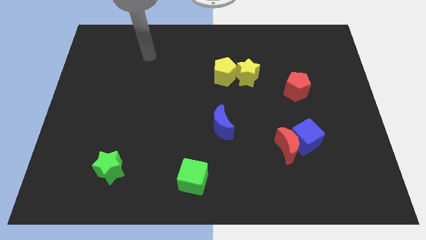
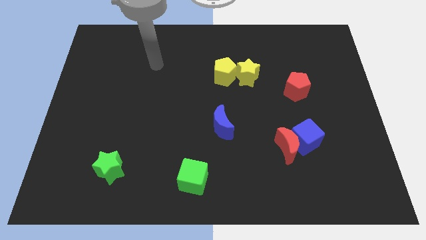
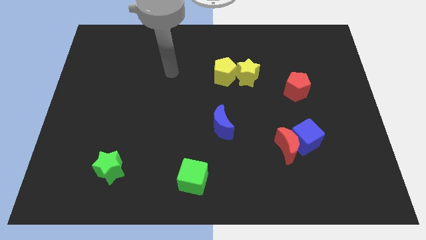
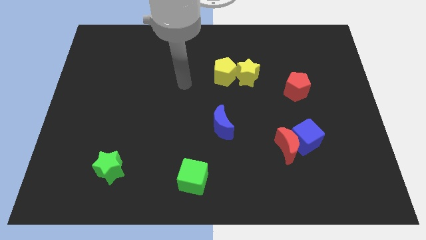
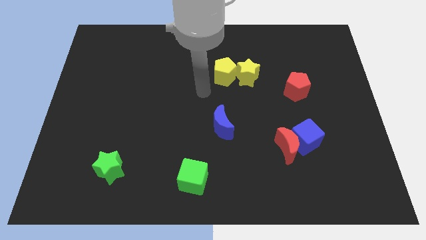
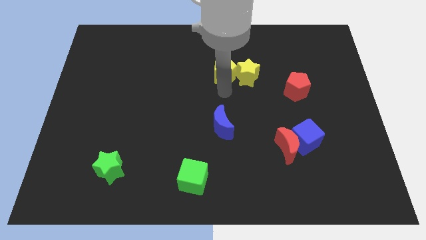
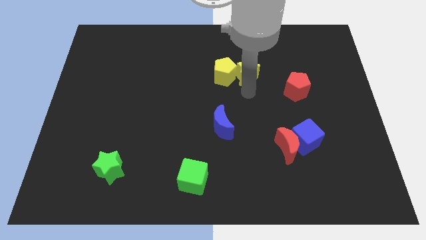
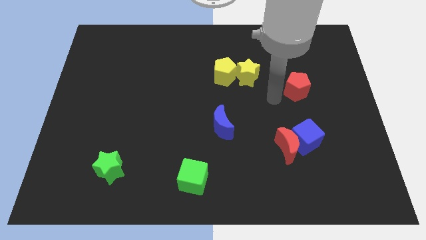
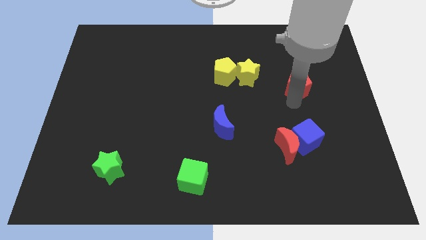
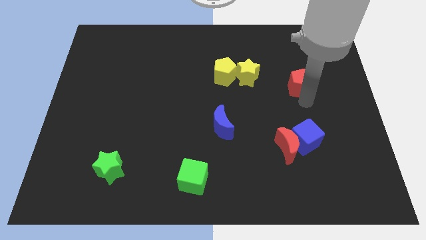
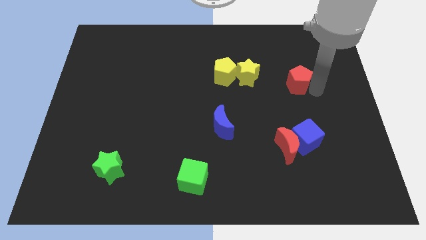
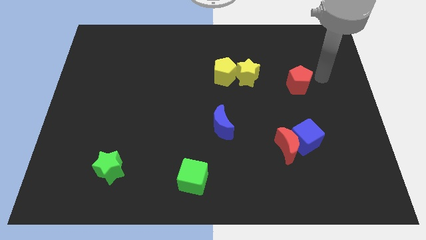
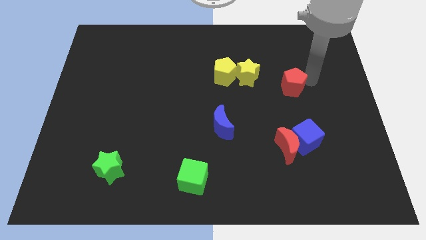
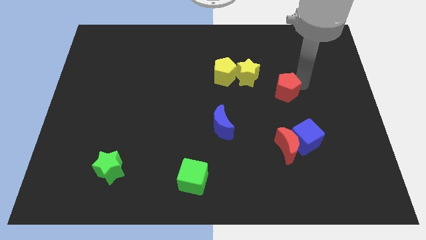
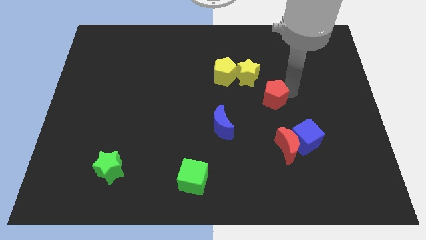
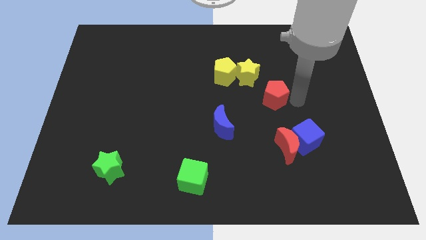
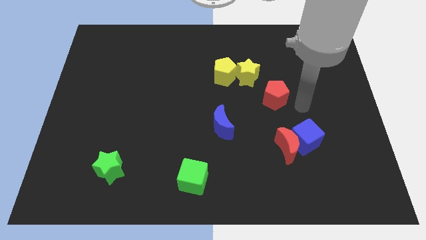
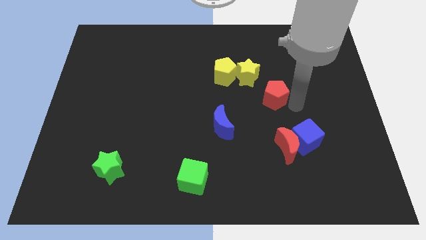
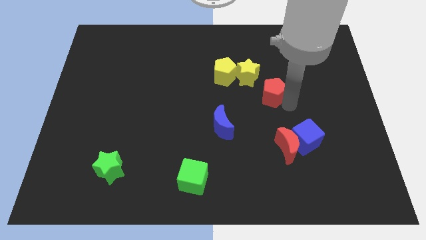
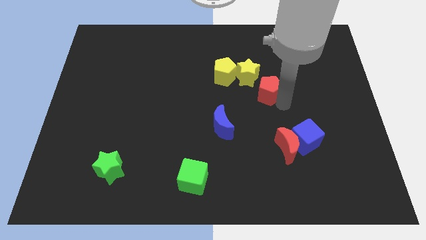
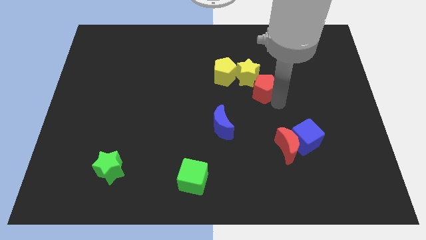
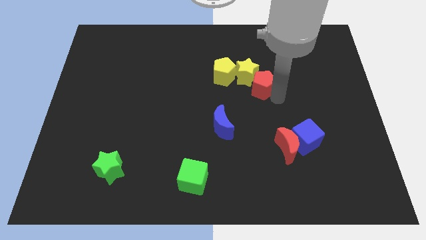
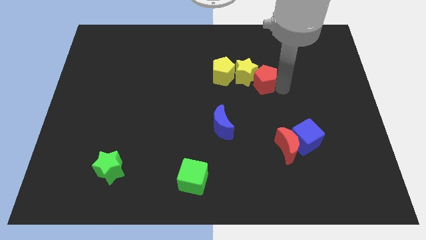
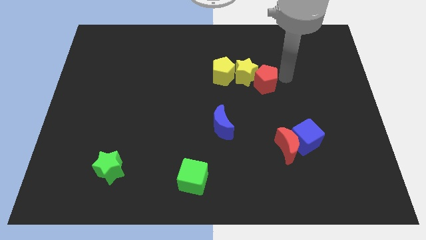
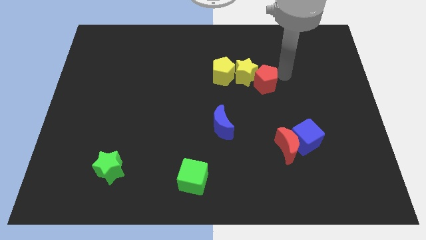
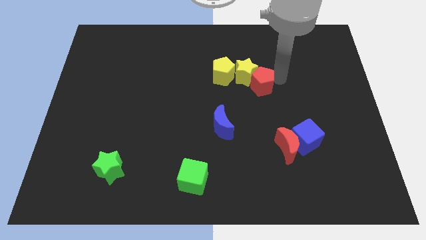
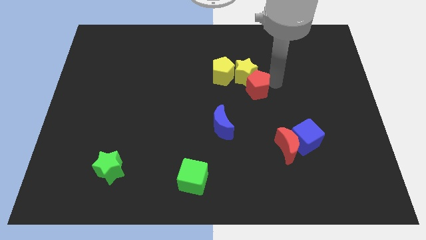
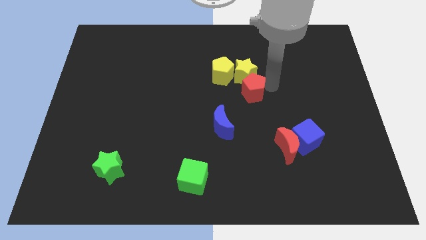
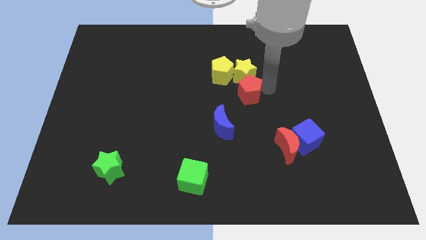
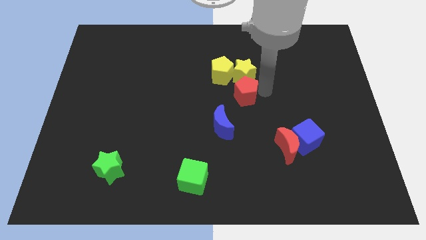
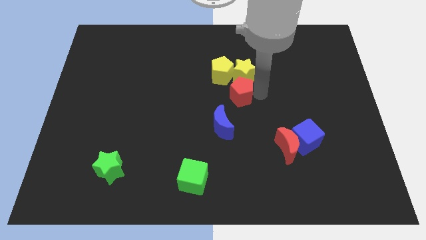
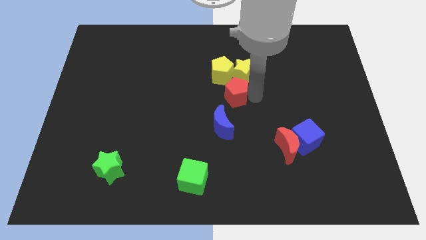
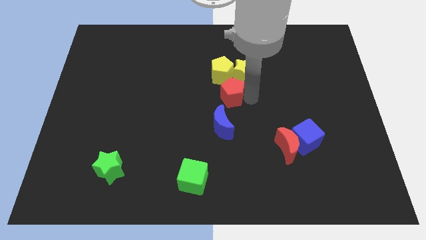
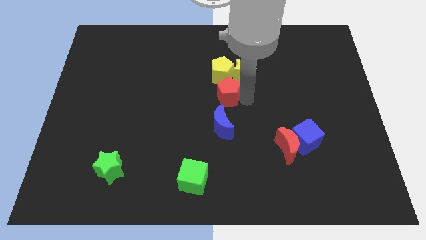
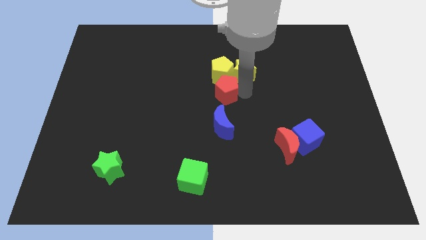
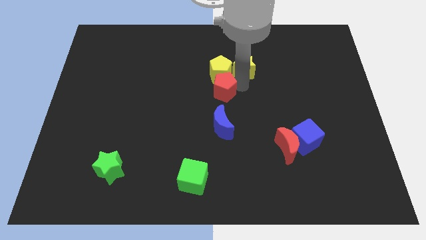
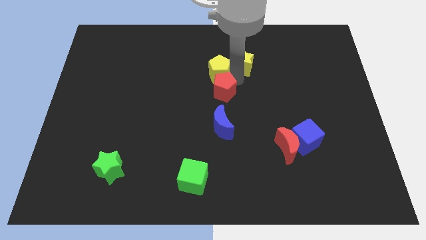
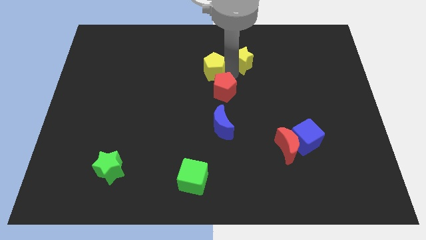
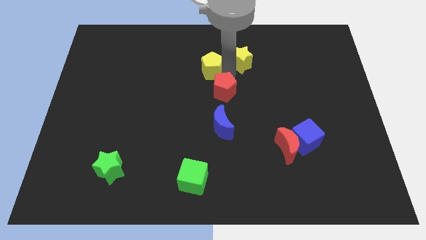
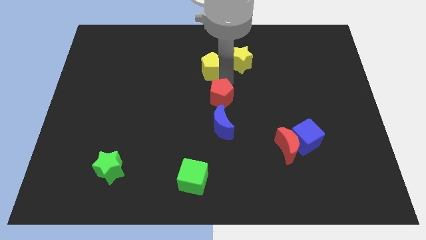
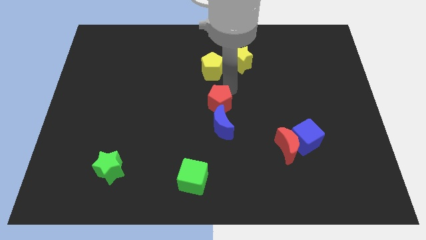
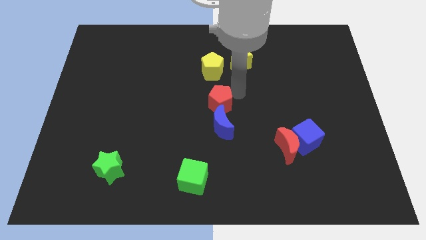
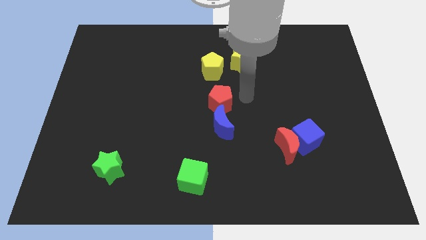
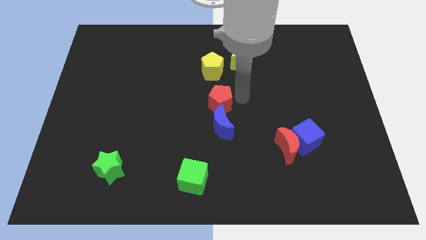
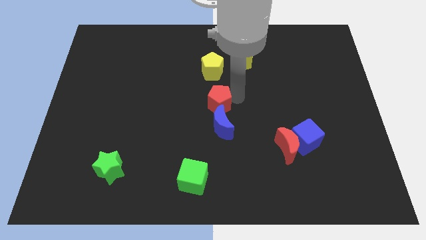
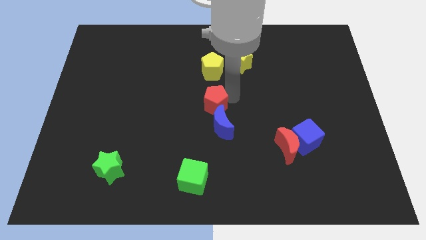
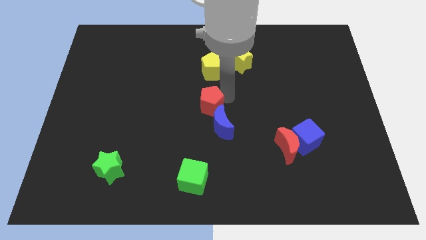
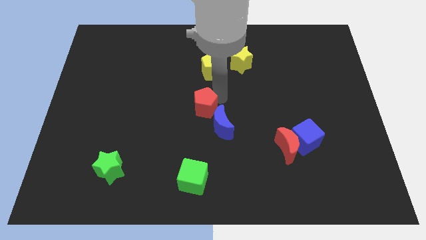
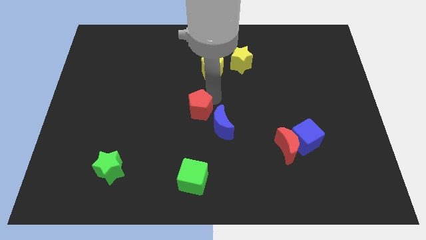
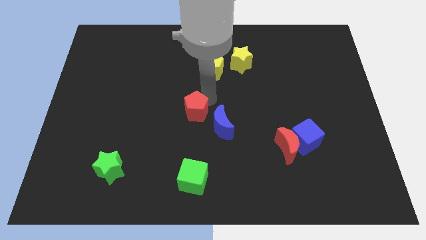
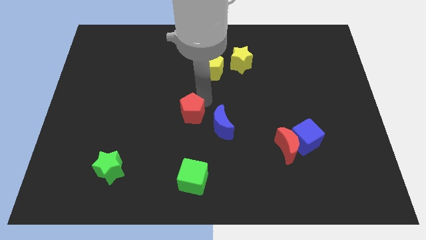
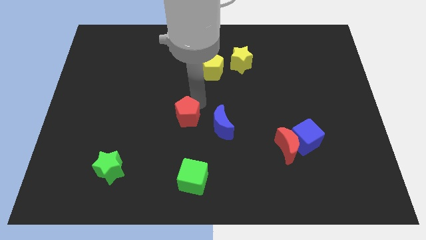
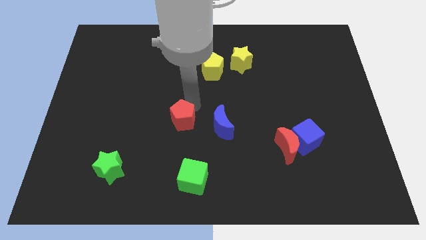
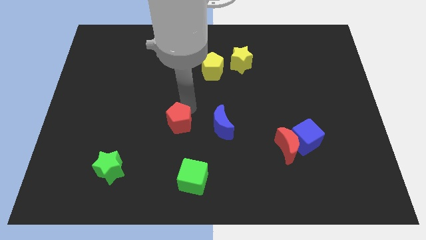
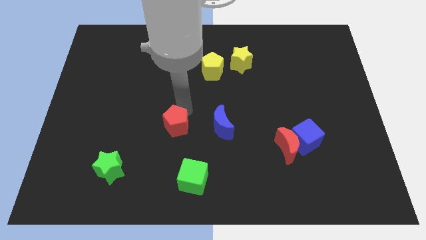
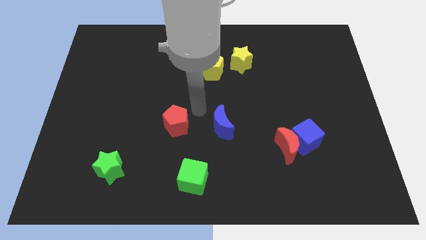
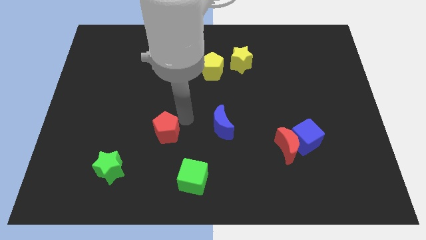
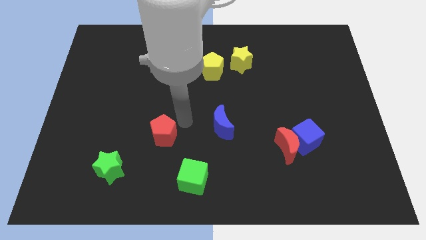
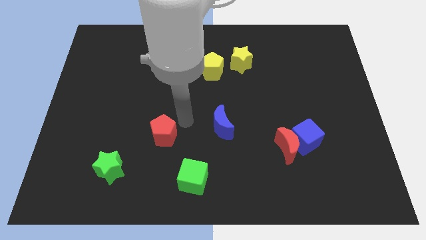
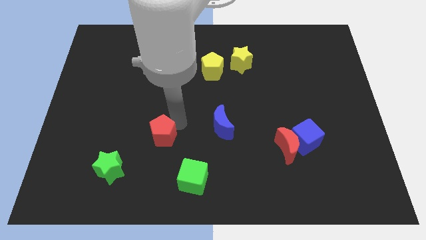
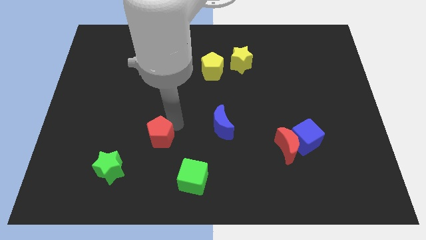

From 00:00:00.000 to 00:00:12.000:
slide the red pentagon diagonally up and to the right of the green star
